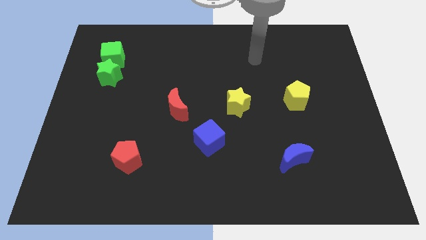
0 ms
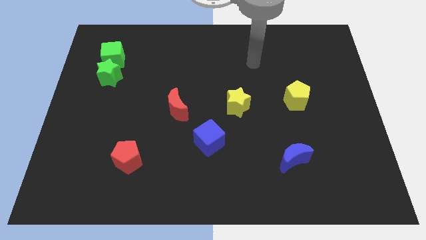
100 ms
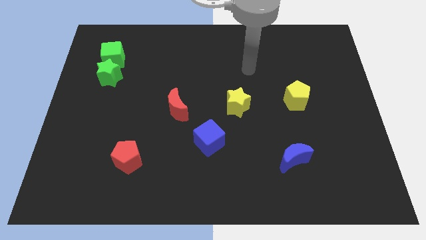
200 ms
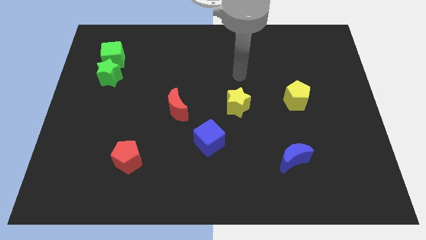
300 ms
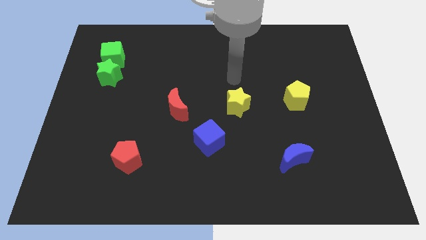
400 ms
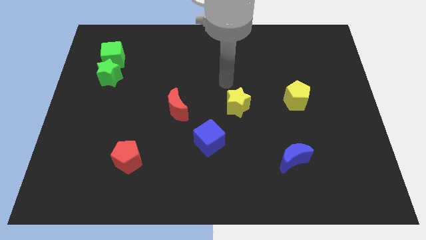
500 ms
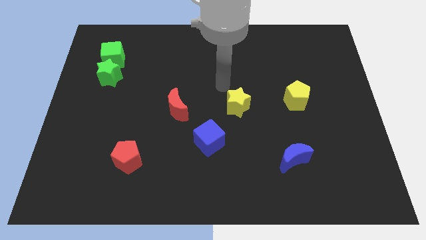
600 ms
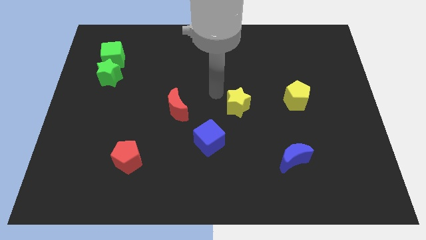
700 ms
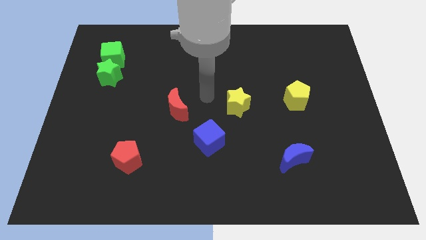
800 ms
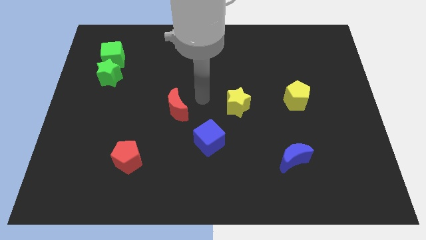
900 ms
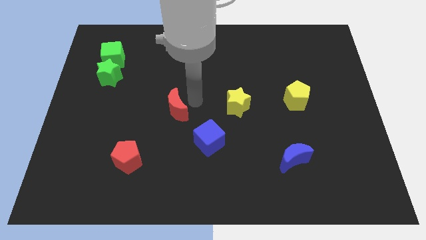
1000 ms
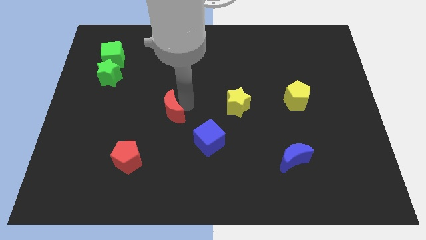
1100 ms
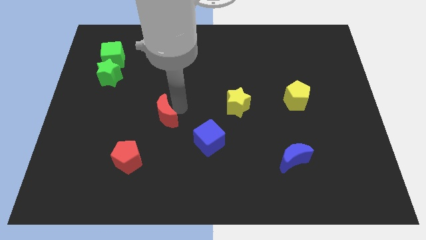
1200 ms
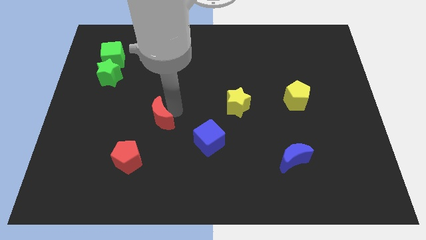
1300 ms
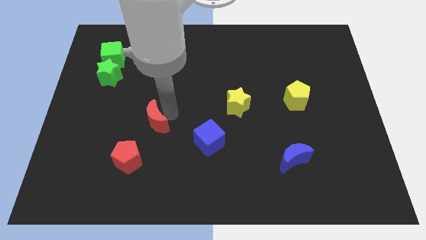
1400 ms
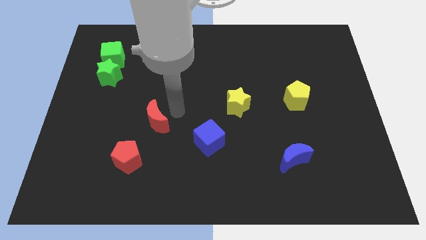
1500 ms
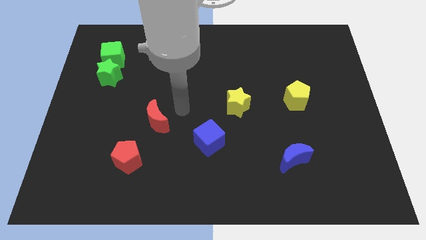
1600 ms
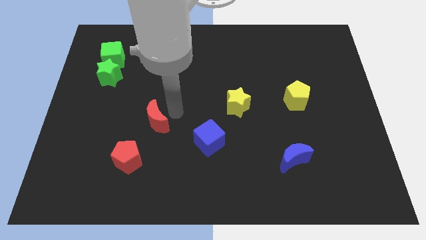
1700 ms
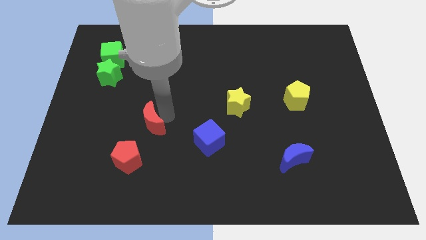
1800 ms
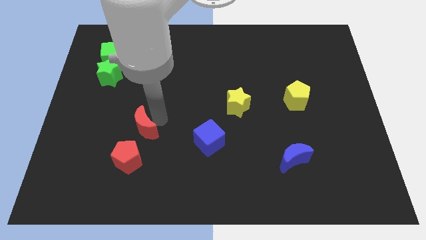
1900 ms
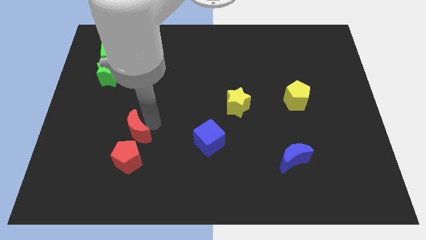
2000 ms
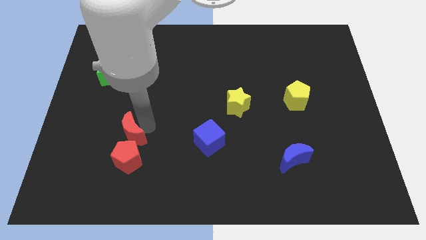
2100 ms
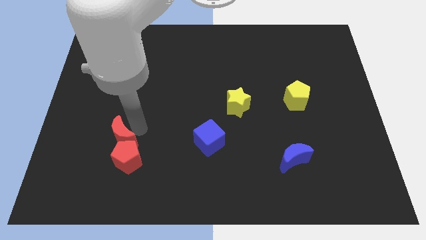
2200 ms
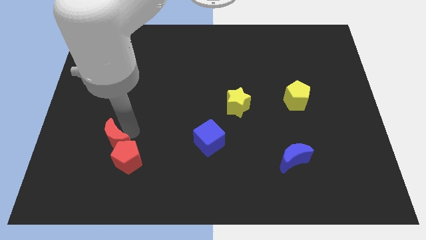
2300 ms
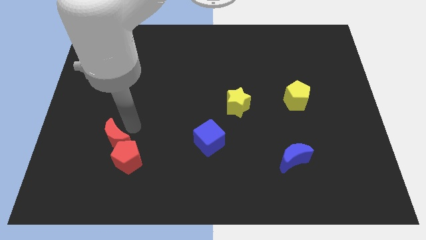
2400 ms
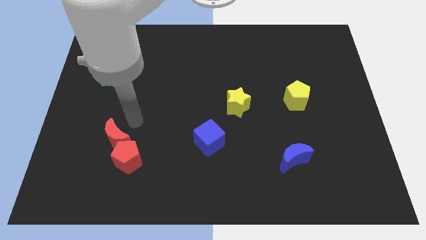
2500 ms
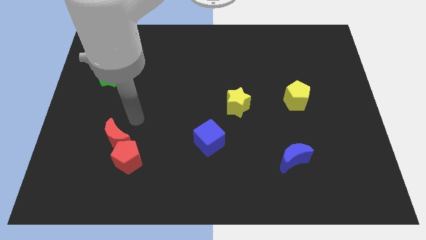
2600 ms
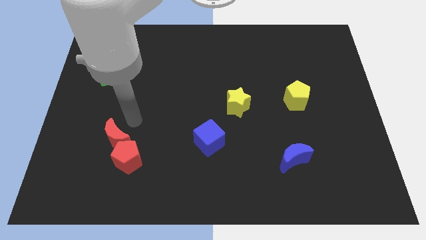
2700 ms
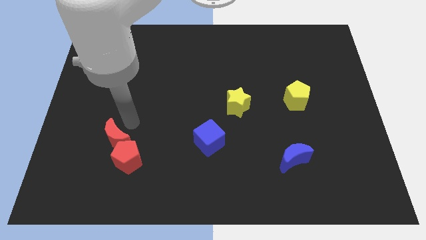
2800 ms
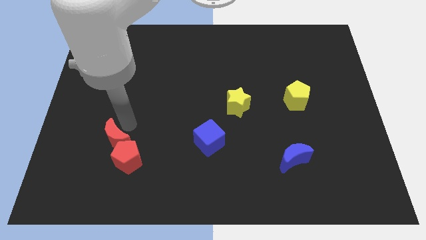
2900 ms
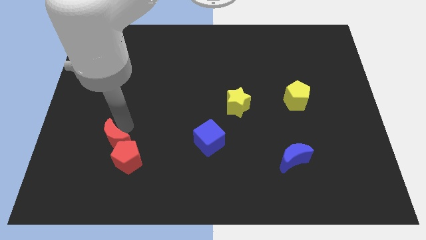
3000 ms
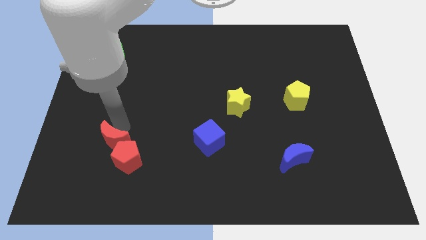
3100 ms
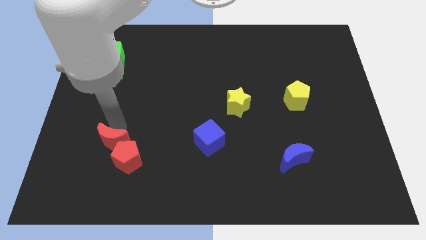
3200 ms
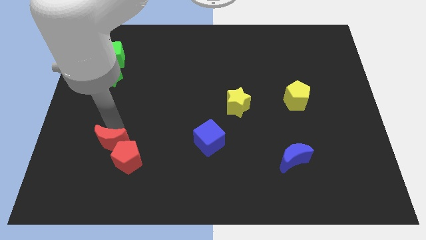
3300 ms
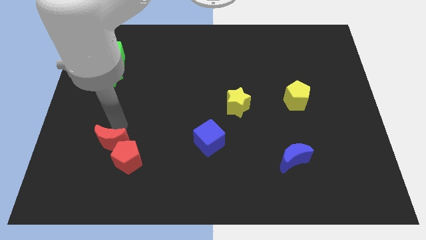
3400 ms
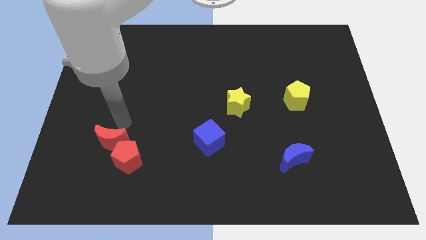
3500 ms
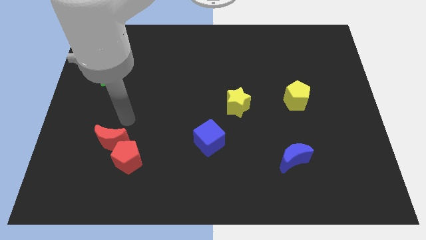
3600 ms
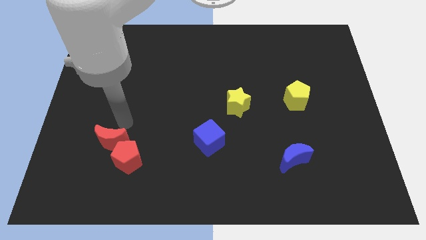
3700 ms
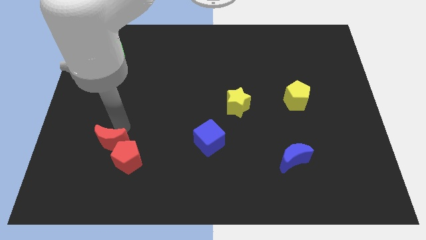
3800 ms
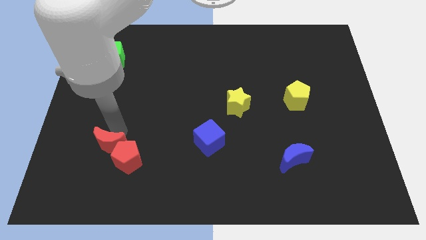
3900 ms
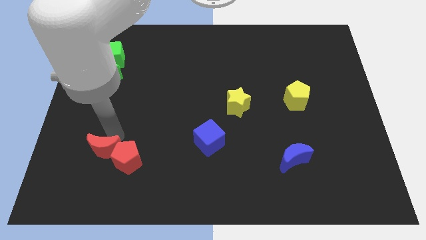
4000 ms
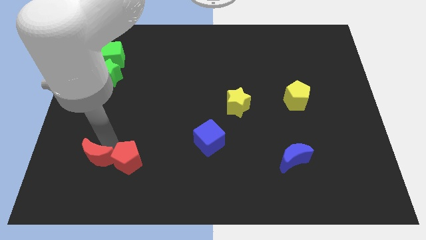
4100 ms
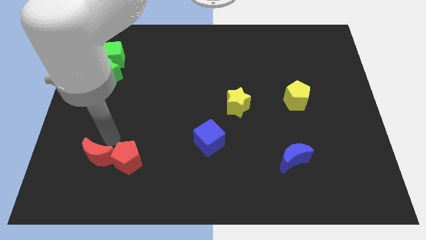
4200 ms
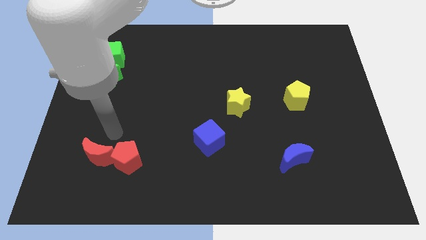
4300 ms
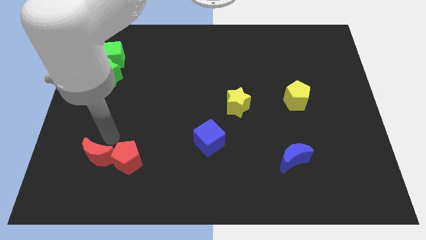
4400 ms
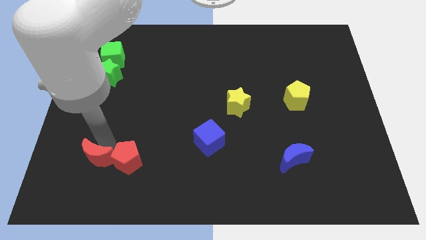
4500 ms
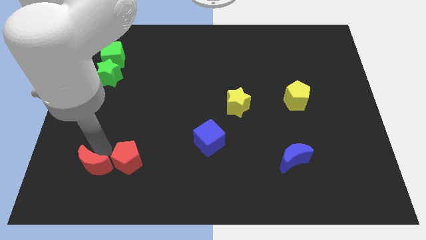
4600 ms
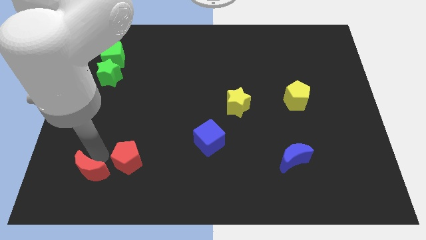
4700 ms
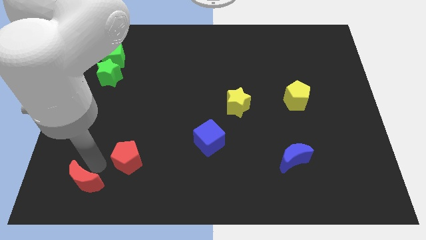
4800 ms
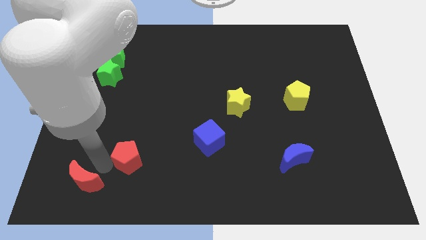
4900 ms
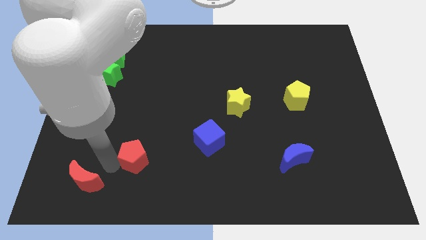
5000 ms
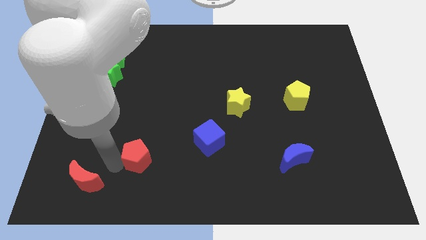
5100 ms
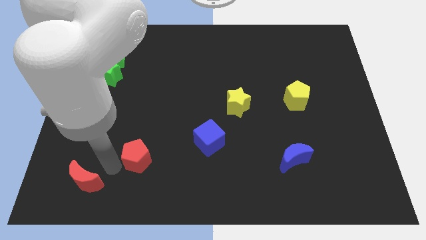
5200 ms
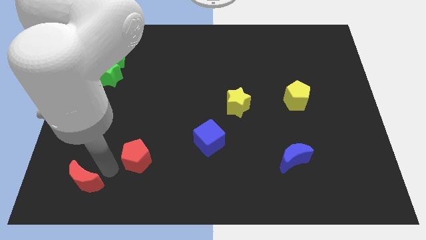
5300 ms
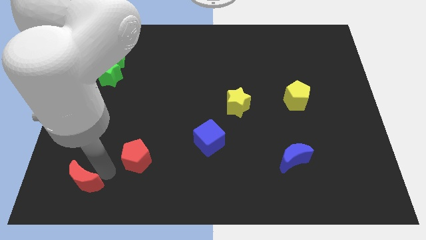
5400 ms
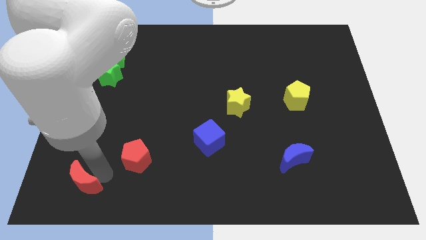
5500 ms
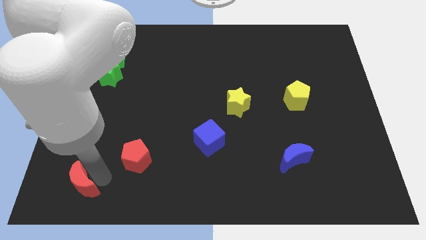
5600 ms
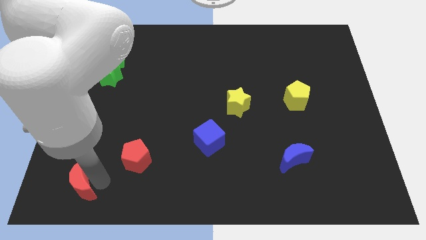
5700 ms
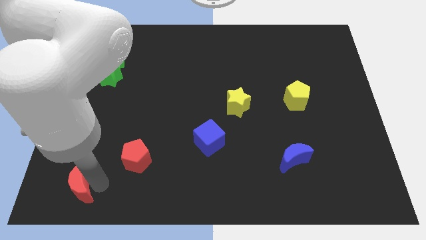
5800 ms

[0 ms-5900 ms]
push the red moon to the lower left corner
